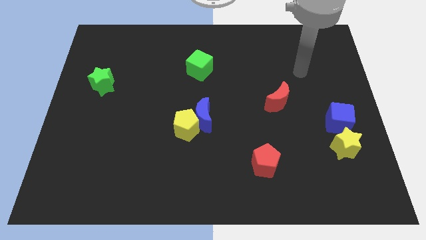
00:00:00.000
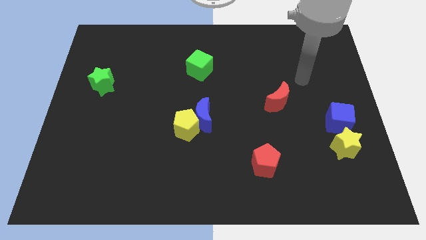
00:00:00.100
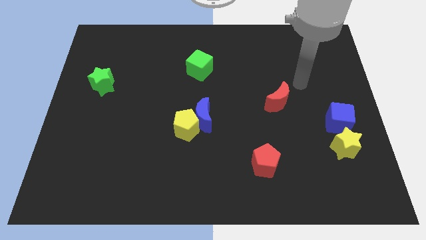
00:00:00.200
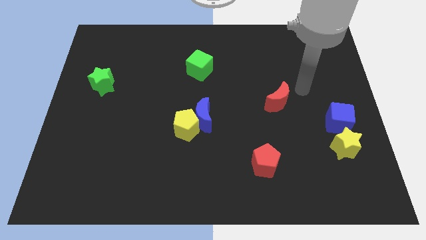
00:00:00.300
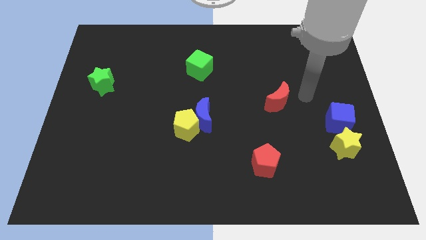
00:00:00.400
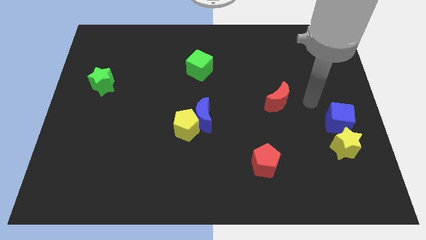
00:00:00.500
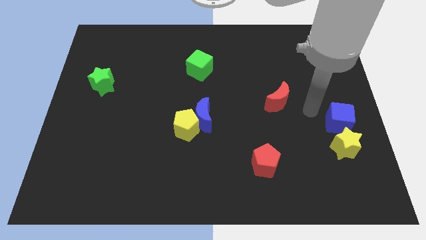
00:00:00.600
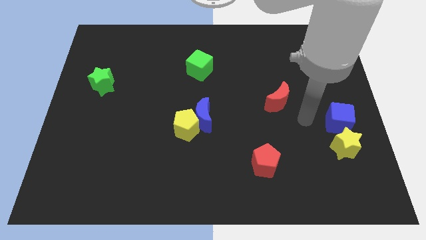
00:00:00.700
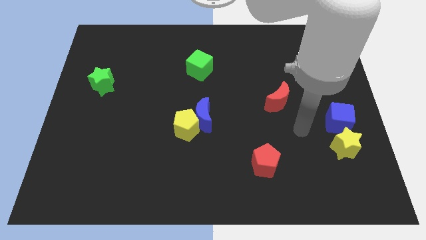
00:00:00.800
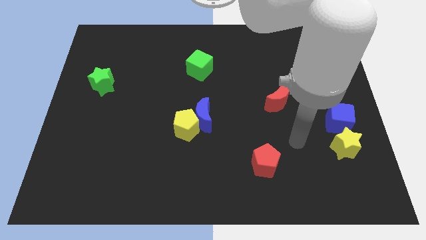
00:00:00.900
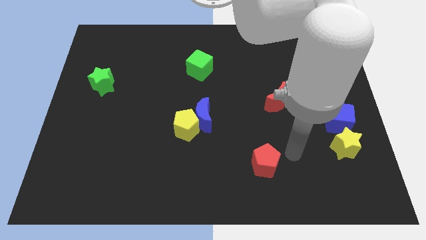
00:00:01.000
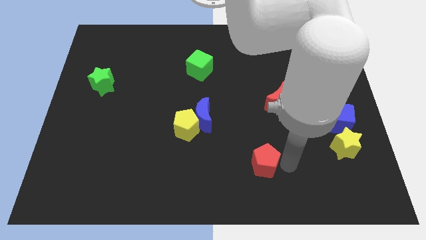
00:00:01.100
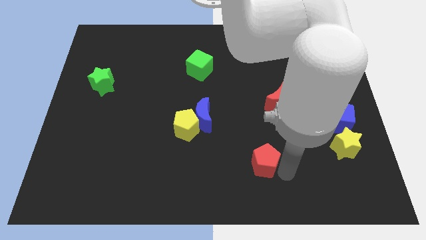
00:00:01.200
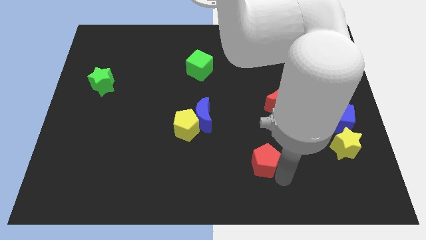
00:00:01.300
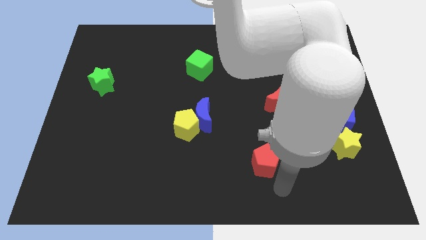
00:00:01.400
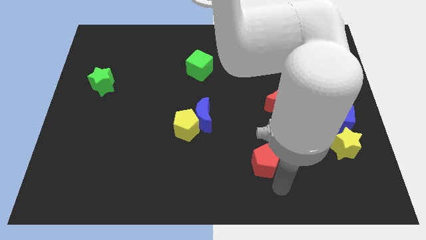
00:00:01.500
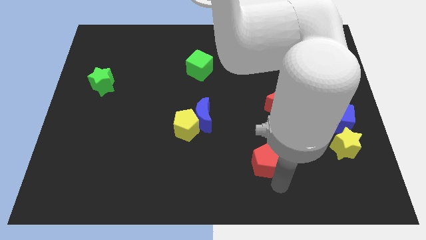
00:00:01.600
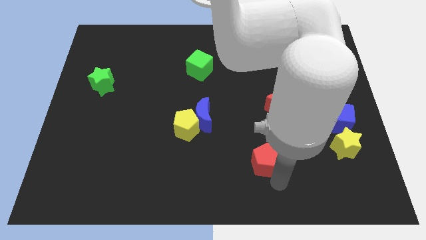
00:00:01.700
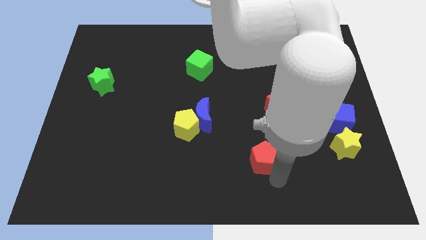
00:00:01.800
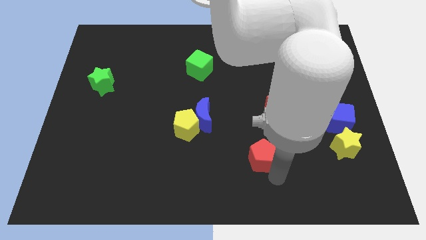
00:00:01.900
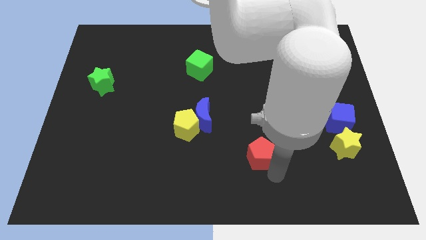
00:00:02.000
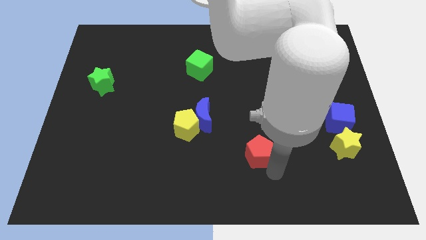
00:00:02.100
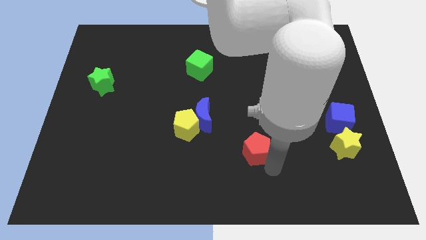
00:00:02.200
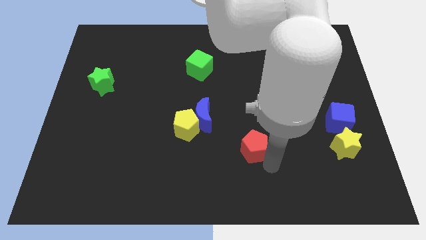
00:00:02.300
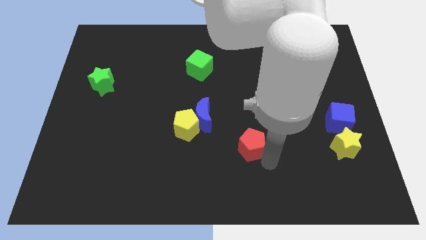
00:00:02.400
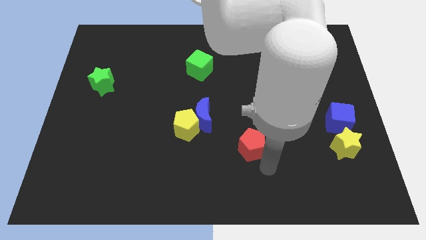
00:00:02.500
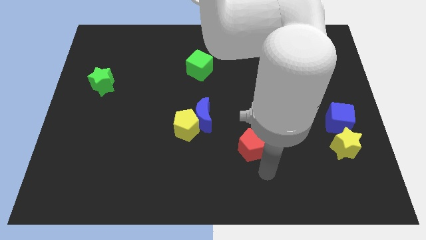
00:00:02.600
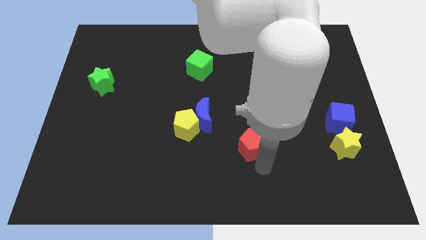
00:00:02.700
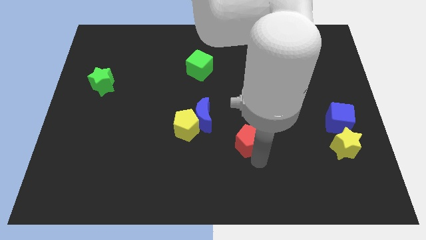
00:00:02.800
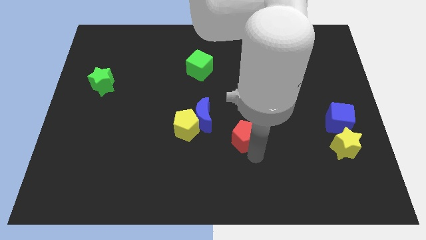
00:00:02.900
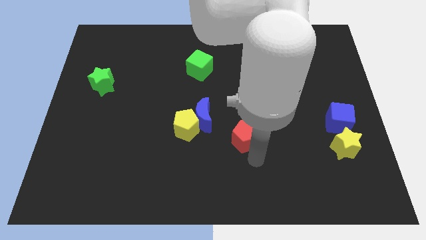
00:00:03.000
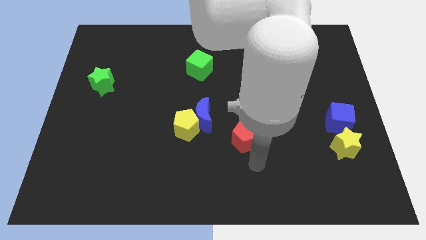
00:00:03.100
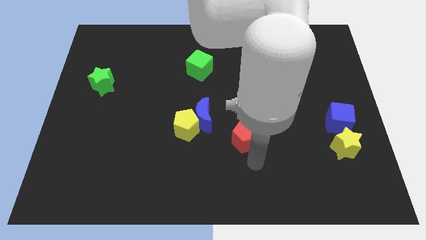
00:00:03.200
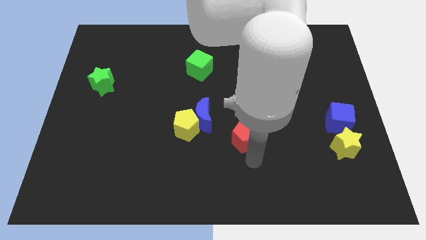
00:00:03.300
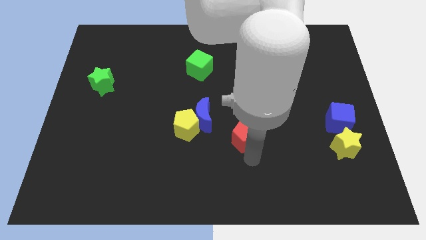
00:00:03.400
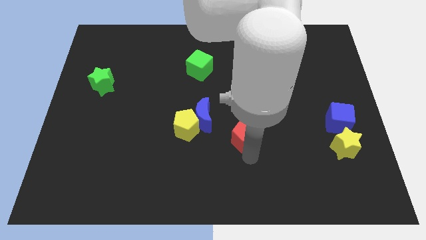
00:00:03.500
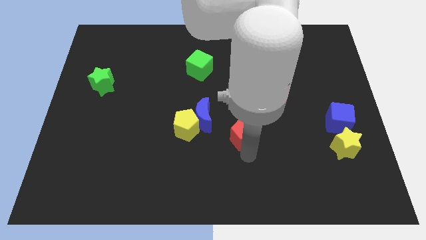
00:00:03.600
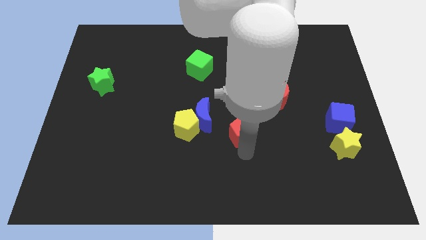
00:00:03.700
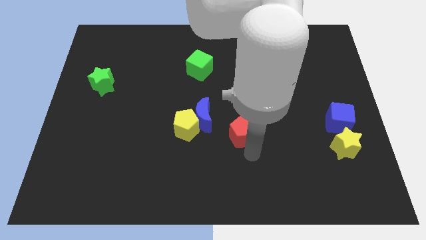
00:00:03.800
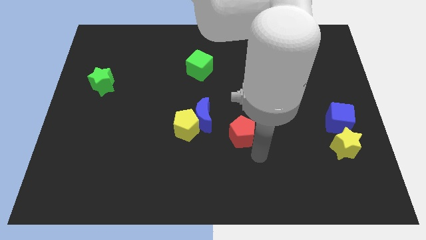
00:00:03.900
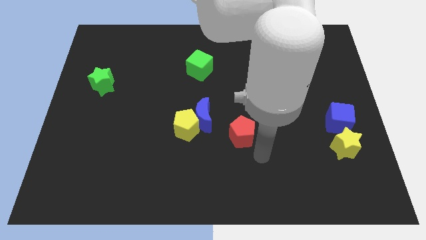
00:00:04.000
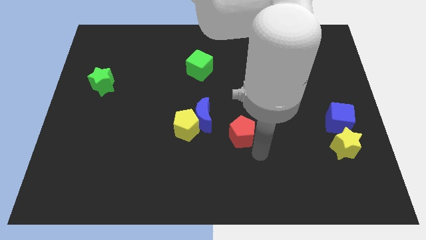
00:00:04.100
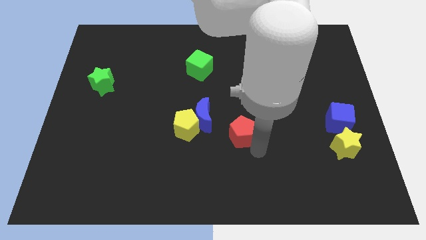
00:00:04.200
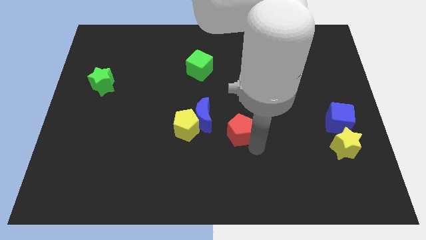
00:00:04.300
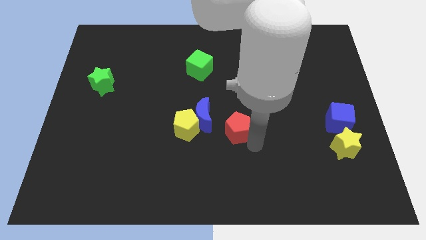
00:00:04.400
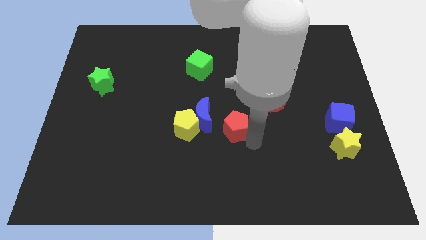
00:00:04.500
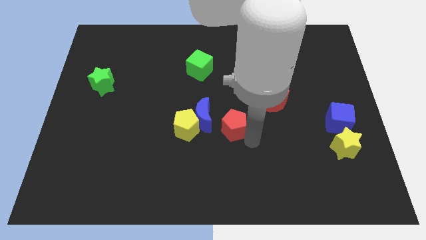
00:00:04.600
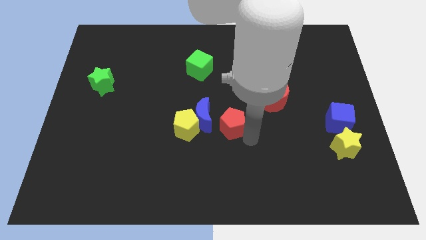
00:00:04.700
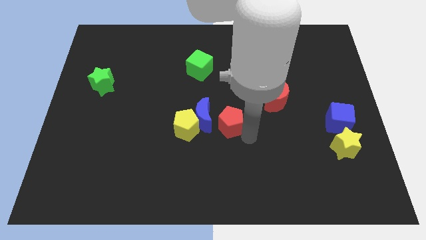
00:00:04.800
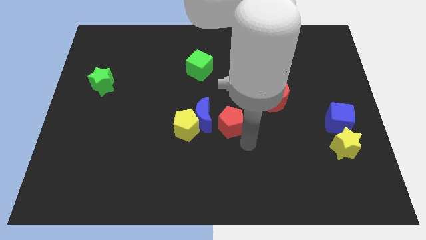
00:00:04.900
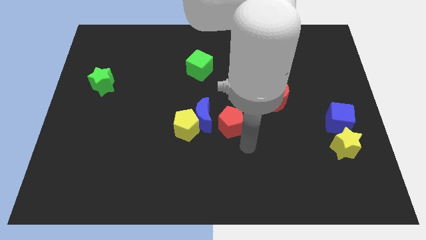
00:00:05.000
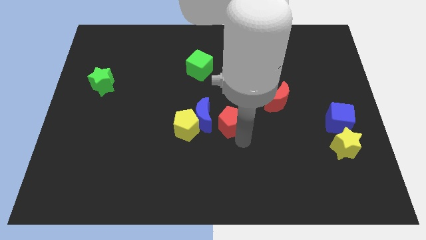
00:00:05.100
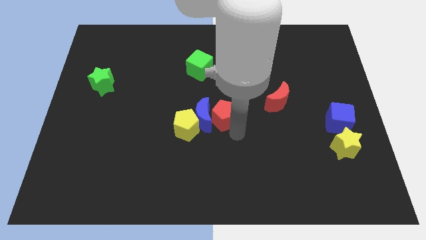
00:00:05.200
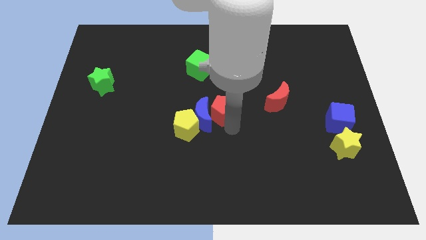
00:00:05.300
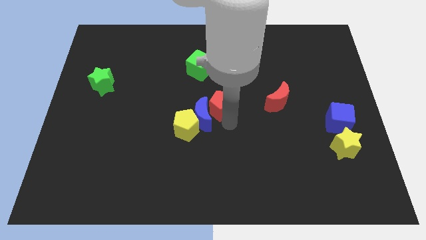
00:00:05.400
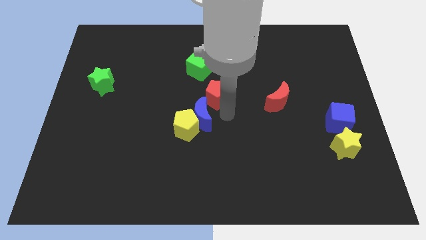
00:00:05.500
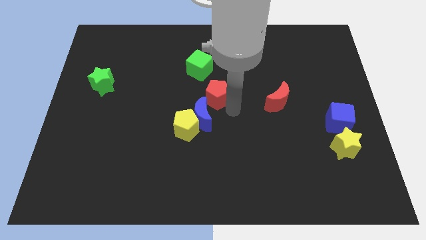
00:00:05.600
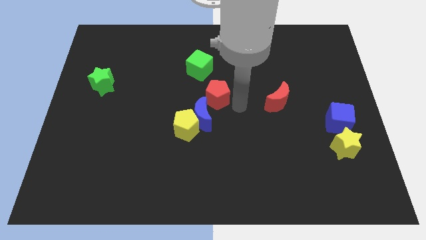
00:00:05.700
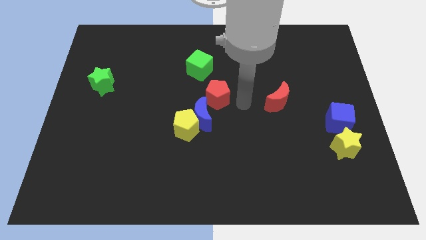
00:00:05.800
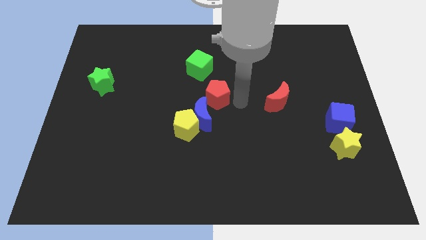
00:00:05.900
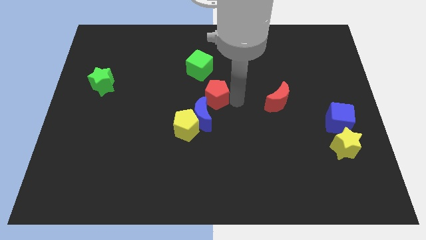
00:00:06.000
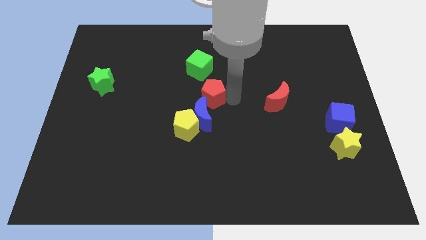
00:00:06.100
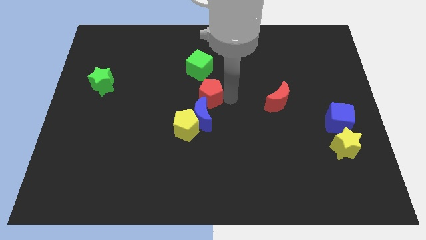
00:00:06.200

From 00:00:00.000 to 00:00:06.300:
push the red pentagon upwards and then left

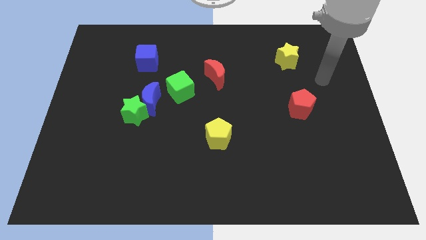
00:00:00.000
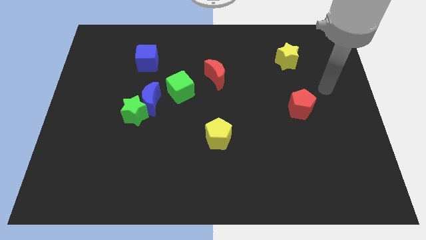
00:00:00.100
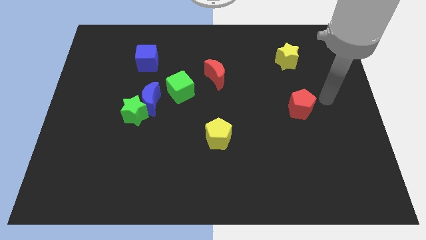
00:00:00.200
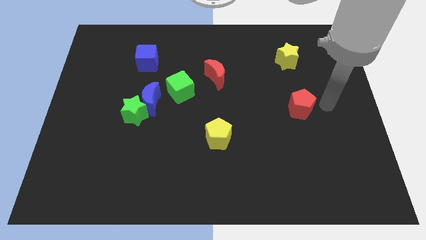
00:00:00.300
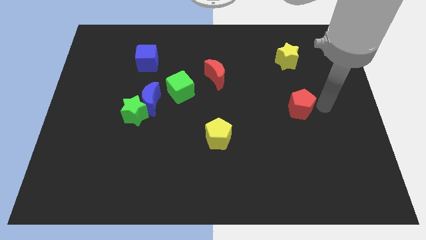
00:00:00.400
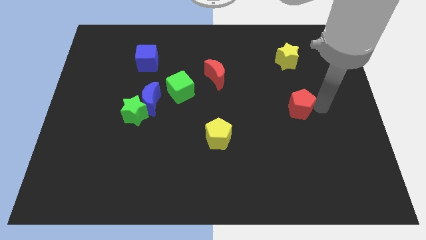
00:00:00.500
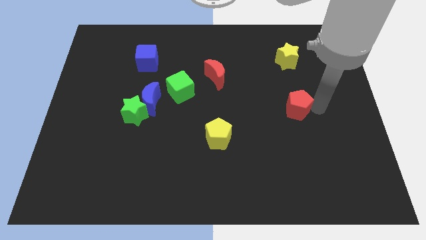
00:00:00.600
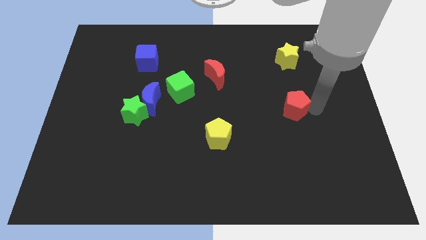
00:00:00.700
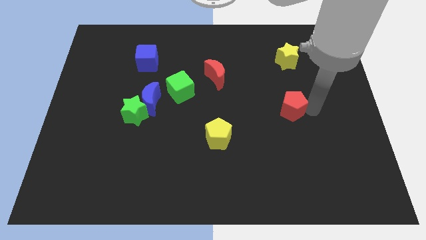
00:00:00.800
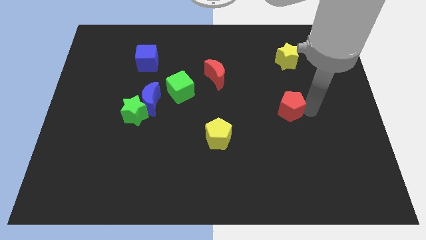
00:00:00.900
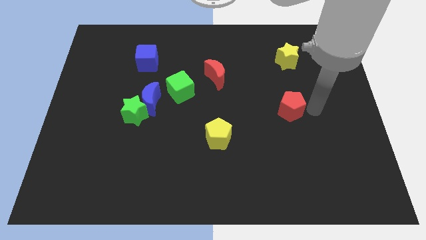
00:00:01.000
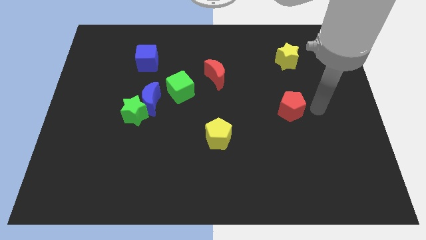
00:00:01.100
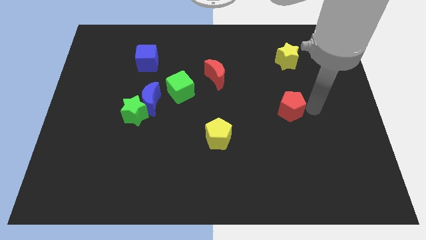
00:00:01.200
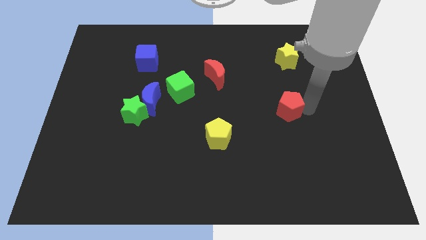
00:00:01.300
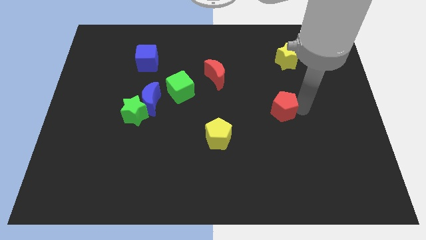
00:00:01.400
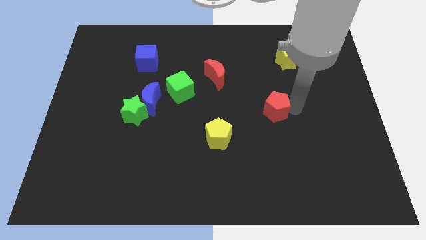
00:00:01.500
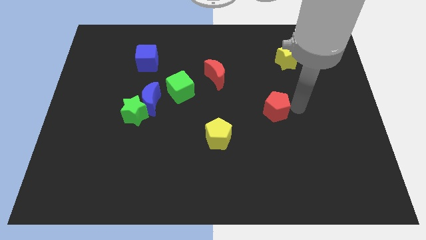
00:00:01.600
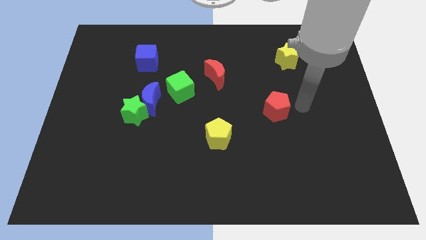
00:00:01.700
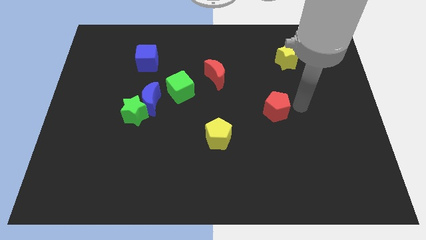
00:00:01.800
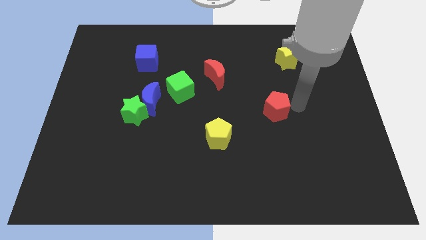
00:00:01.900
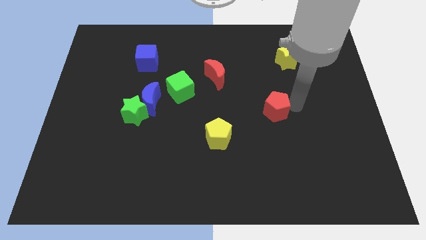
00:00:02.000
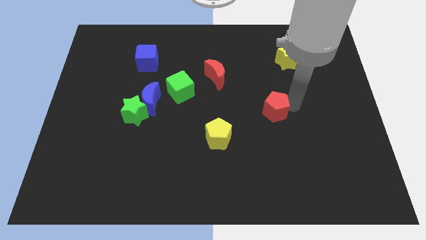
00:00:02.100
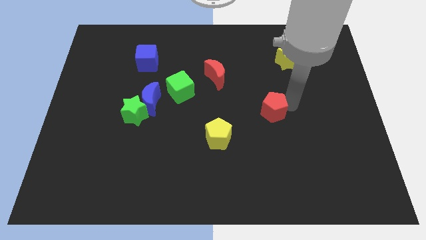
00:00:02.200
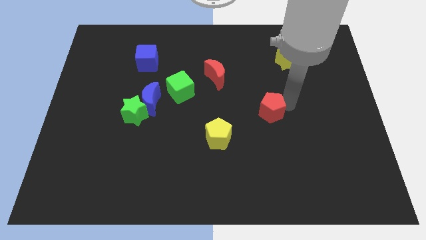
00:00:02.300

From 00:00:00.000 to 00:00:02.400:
slightly move the red pentagon left
